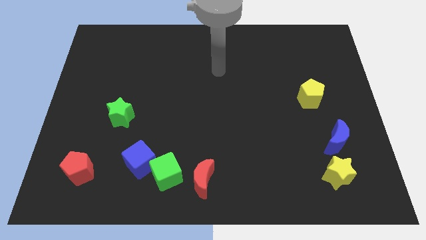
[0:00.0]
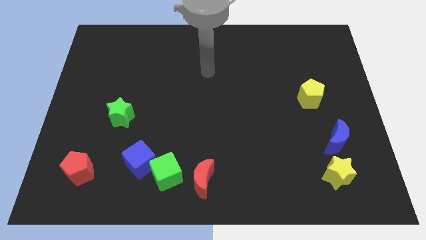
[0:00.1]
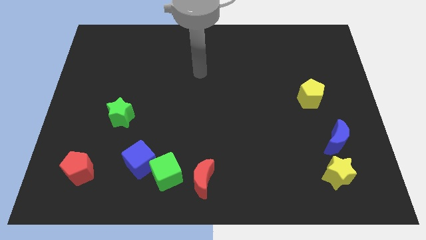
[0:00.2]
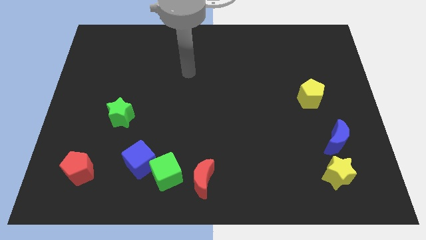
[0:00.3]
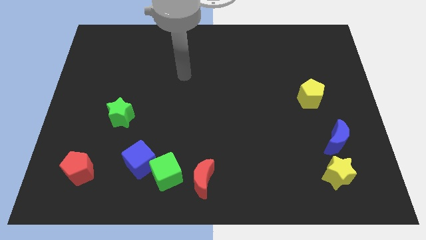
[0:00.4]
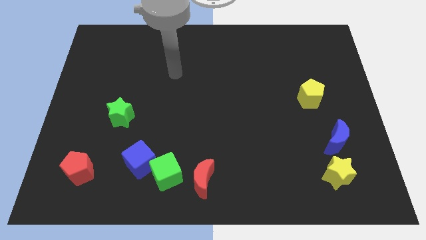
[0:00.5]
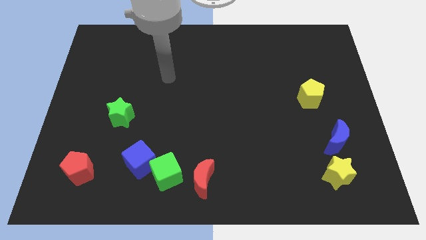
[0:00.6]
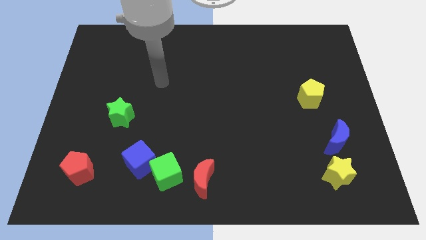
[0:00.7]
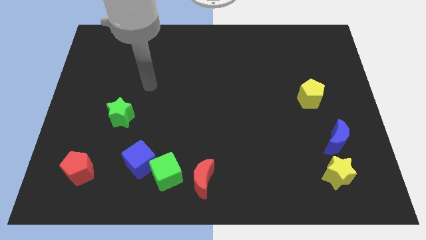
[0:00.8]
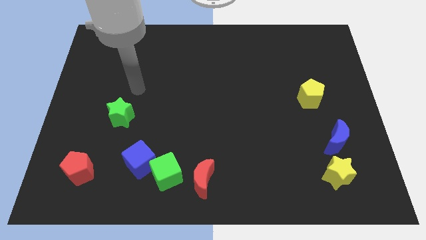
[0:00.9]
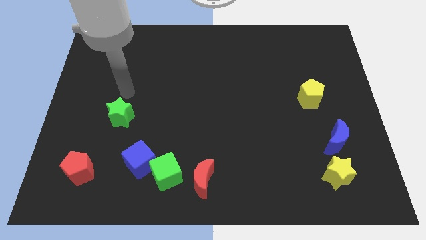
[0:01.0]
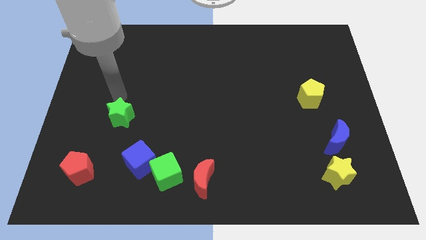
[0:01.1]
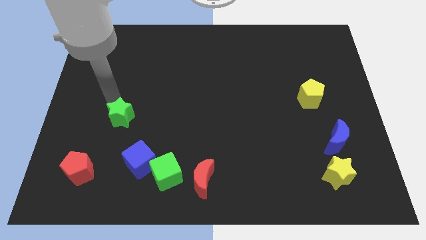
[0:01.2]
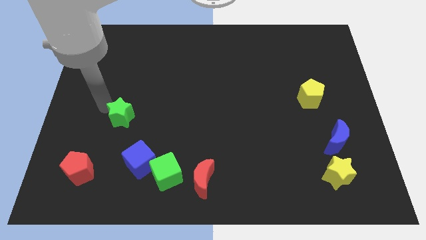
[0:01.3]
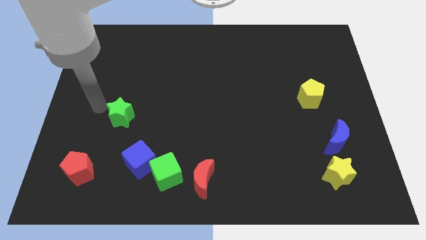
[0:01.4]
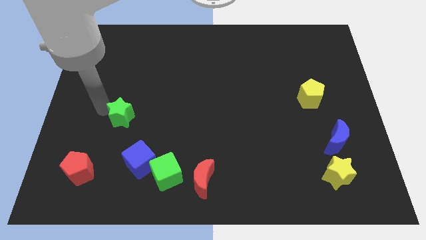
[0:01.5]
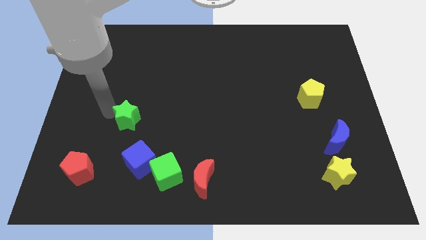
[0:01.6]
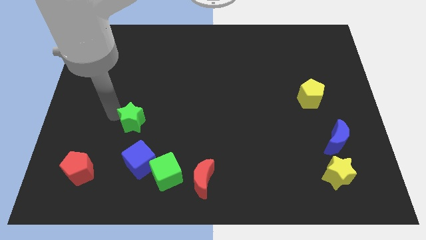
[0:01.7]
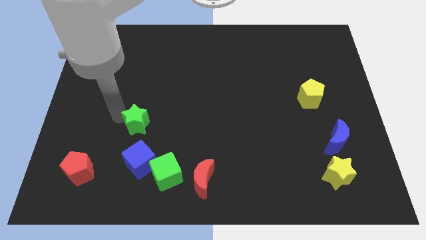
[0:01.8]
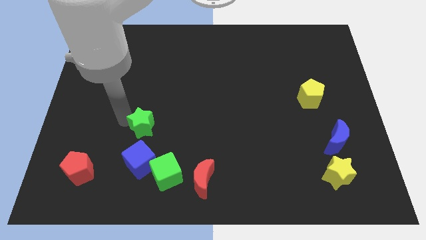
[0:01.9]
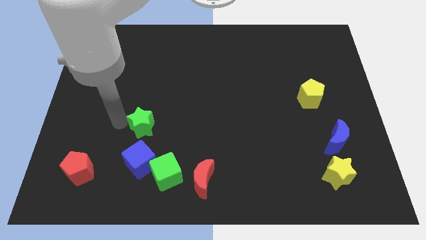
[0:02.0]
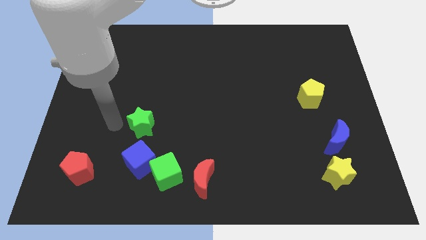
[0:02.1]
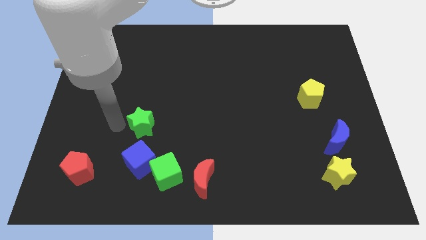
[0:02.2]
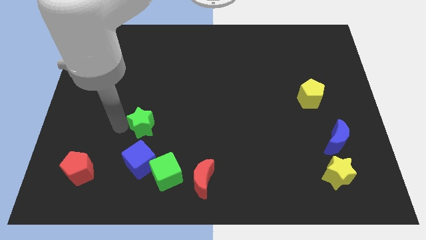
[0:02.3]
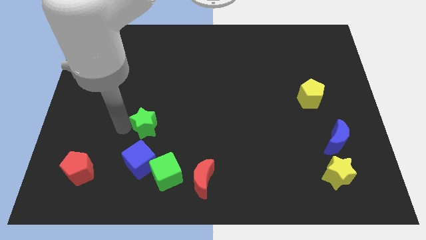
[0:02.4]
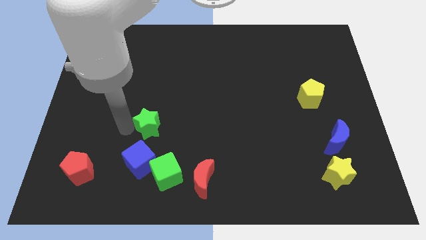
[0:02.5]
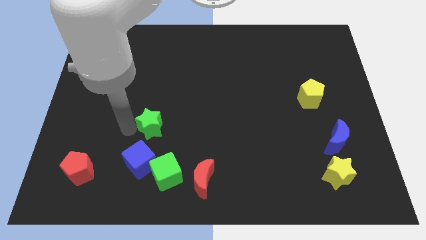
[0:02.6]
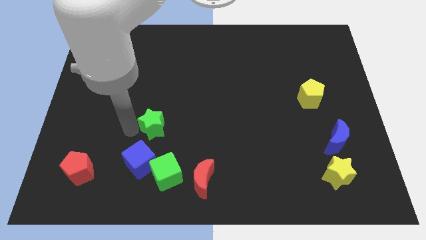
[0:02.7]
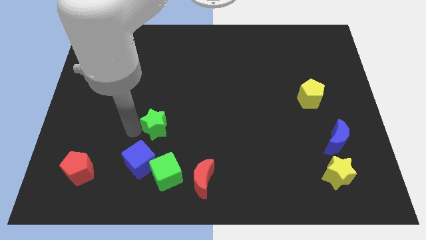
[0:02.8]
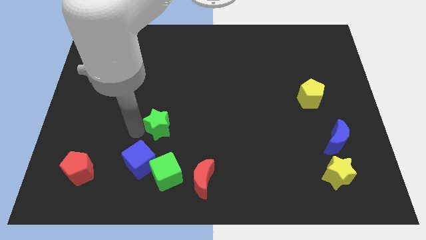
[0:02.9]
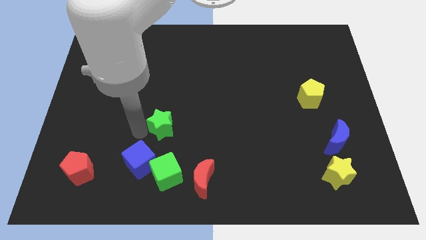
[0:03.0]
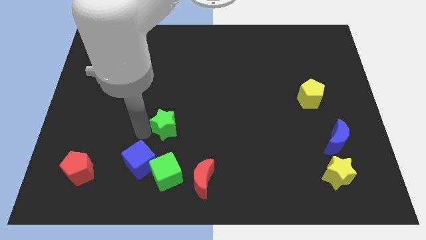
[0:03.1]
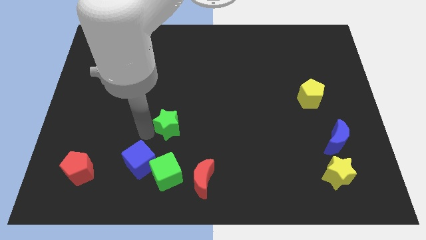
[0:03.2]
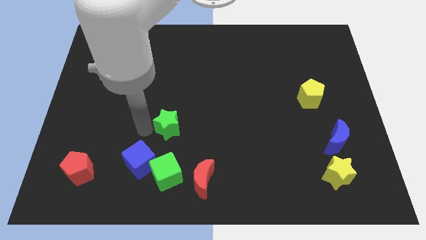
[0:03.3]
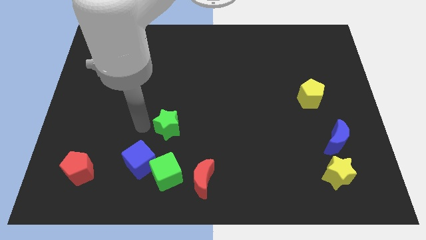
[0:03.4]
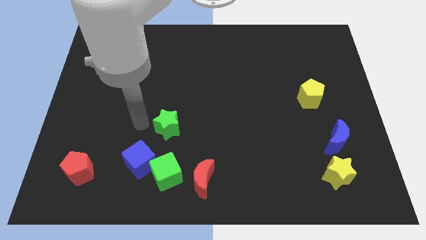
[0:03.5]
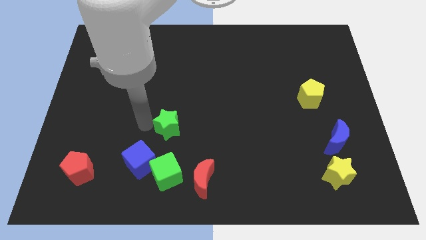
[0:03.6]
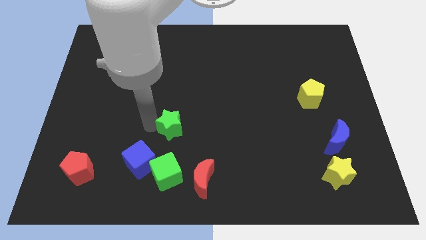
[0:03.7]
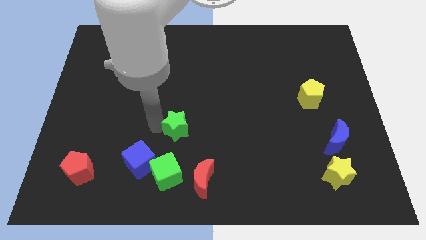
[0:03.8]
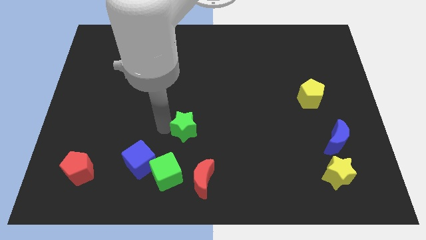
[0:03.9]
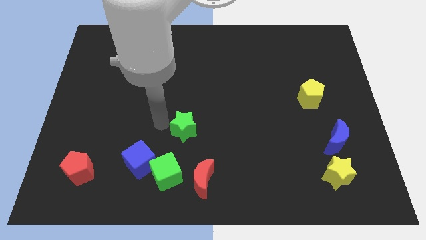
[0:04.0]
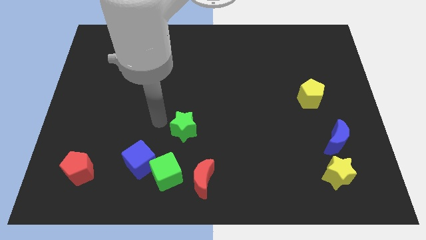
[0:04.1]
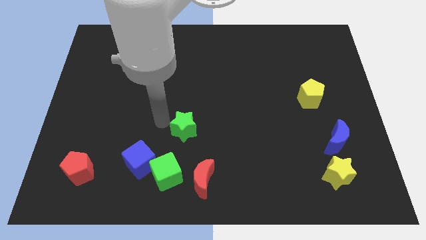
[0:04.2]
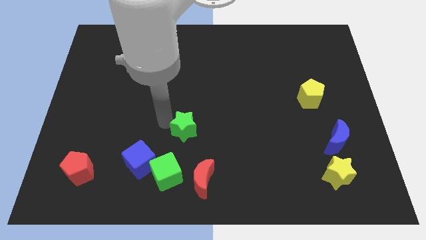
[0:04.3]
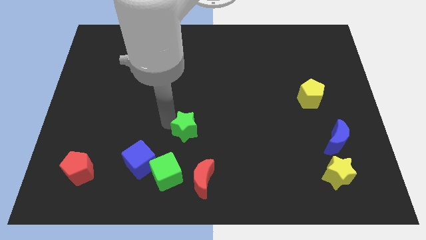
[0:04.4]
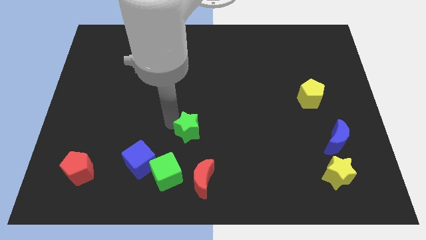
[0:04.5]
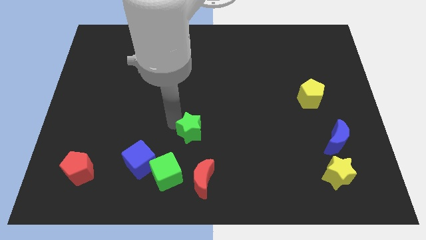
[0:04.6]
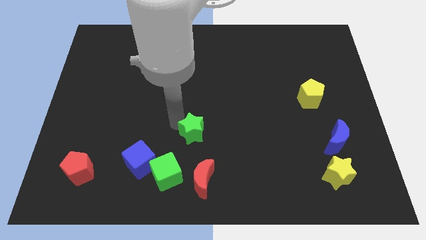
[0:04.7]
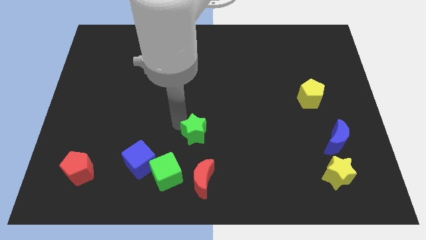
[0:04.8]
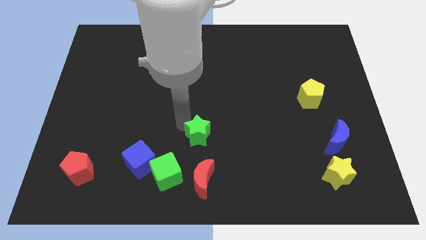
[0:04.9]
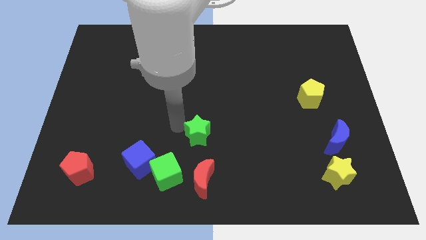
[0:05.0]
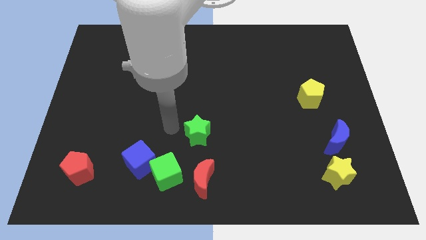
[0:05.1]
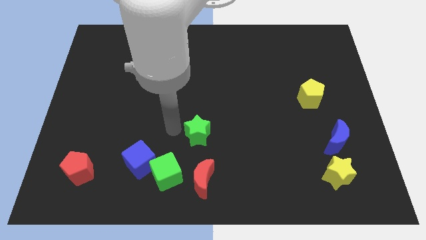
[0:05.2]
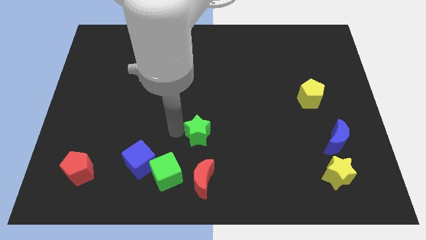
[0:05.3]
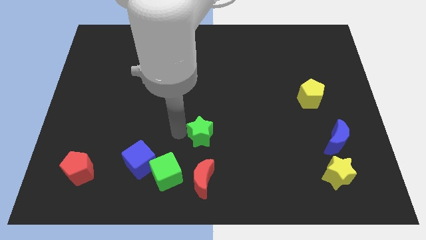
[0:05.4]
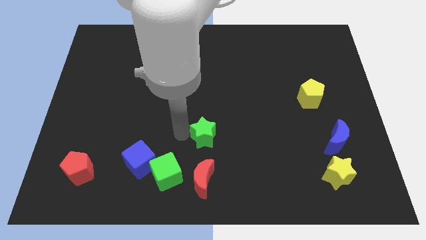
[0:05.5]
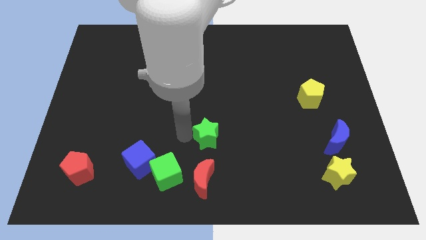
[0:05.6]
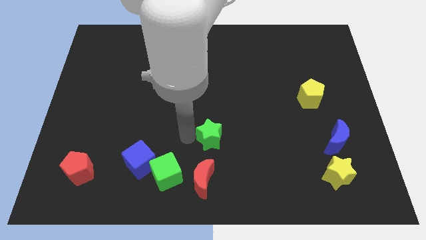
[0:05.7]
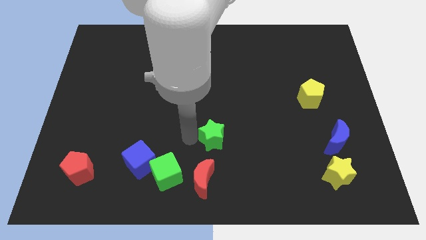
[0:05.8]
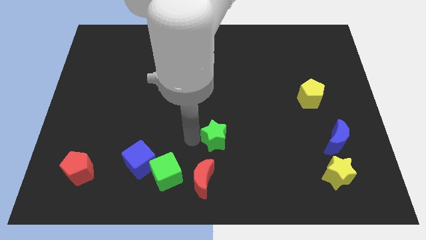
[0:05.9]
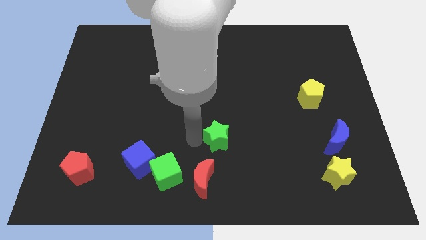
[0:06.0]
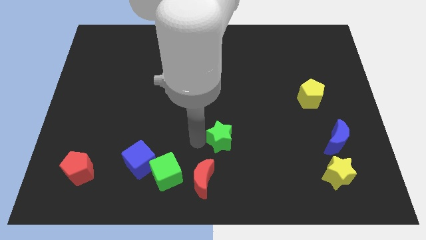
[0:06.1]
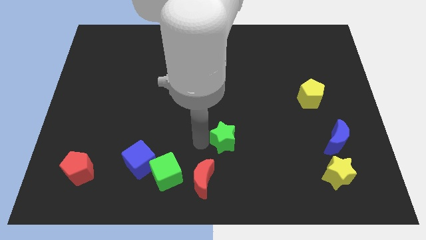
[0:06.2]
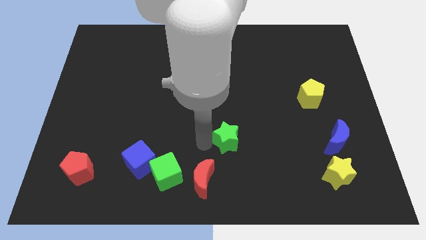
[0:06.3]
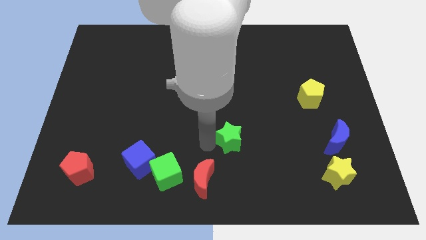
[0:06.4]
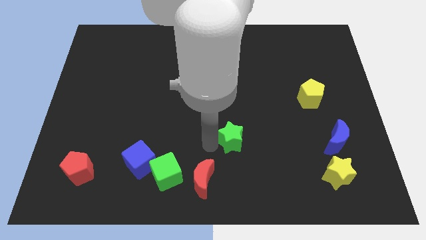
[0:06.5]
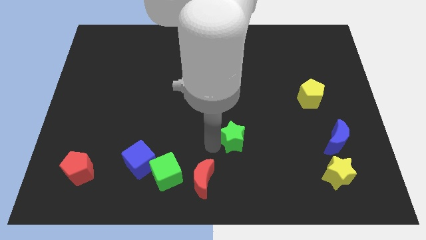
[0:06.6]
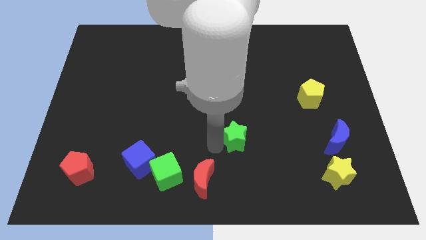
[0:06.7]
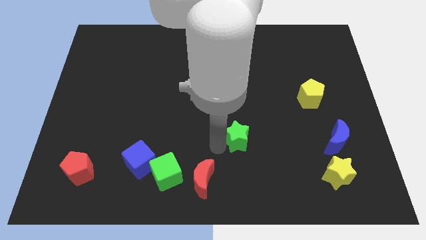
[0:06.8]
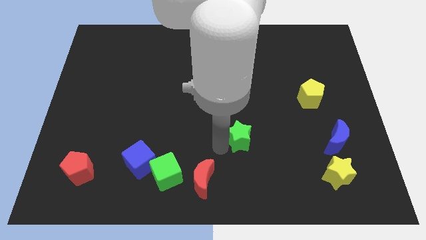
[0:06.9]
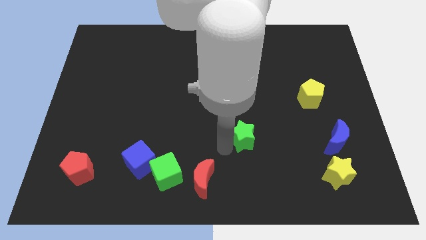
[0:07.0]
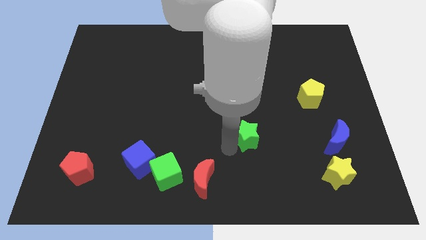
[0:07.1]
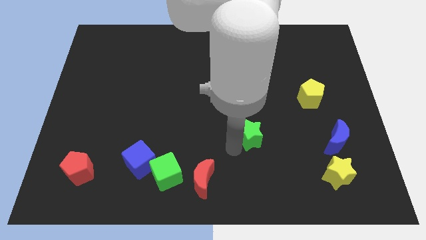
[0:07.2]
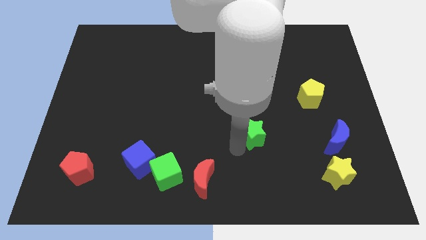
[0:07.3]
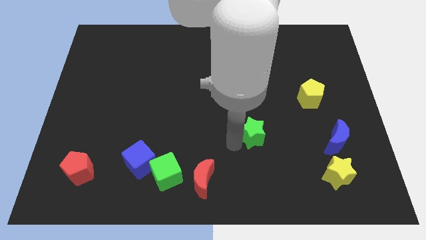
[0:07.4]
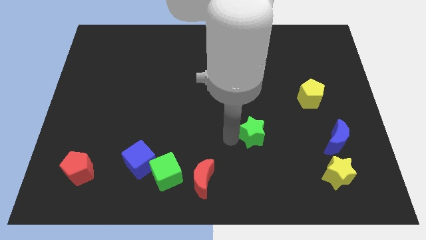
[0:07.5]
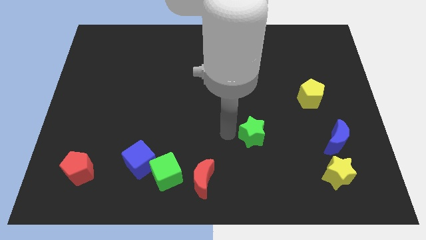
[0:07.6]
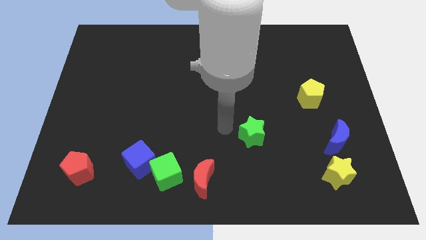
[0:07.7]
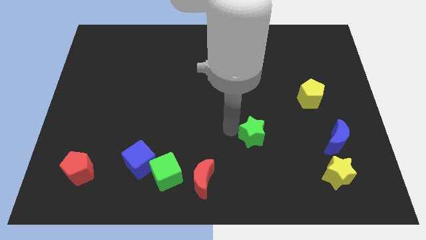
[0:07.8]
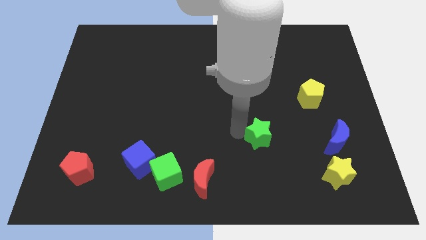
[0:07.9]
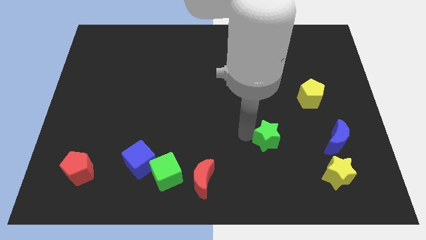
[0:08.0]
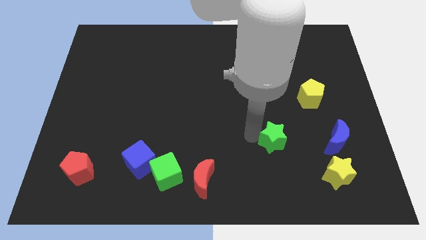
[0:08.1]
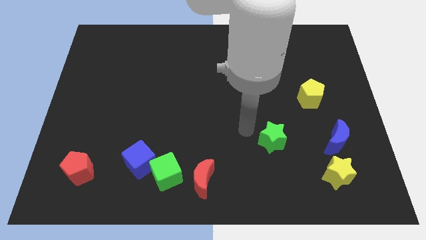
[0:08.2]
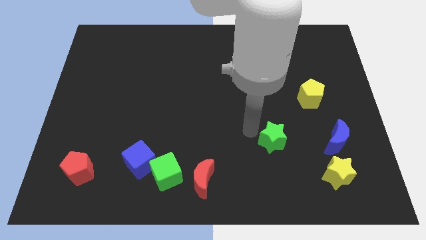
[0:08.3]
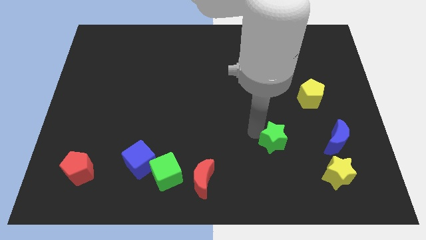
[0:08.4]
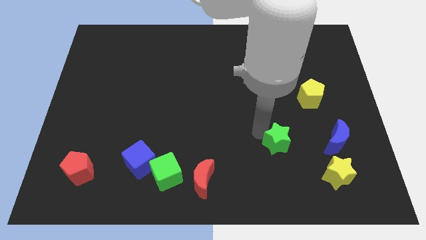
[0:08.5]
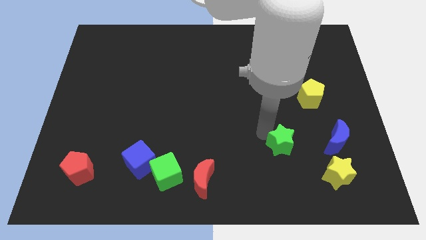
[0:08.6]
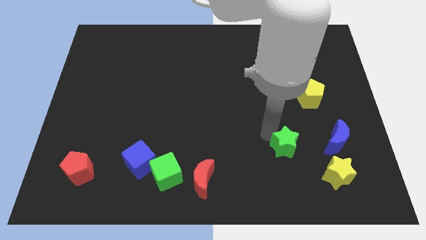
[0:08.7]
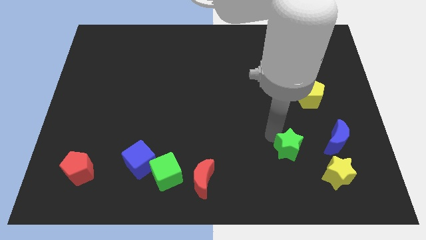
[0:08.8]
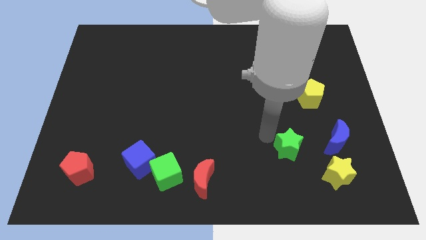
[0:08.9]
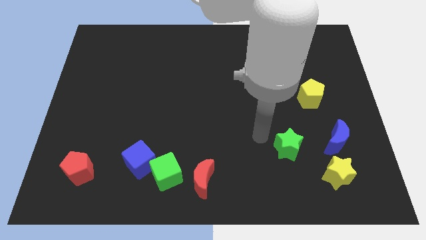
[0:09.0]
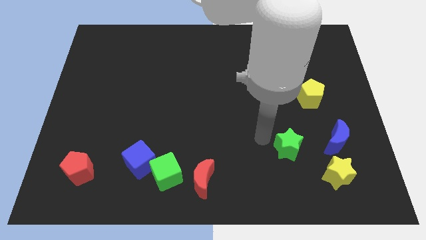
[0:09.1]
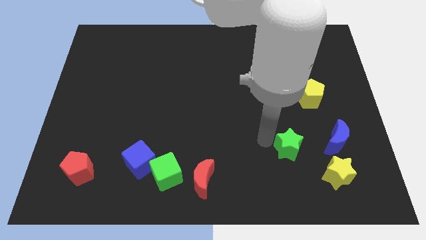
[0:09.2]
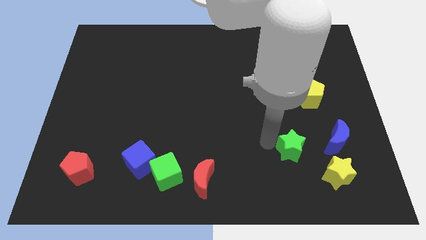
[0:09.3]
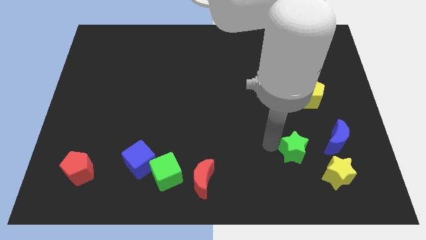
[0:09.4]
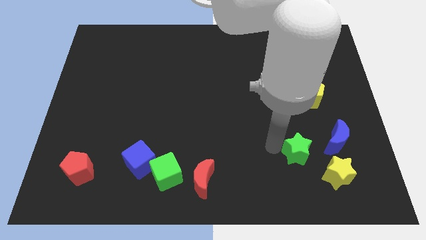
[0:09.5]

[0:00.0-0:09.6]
slide the green star to the bottom left side of the blue moon
